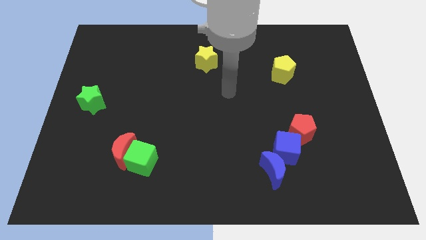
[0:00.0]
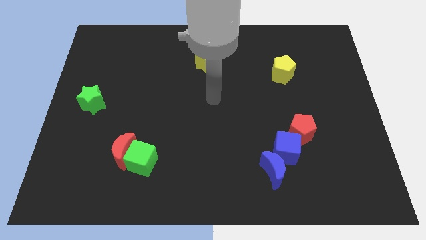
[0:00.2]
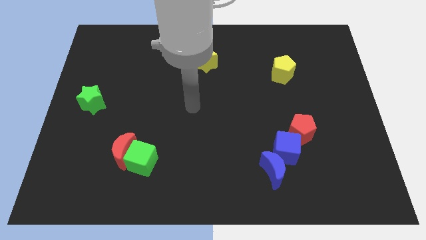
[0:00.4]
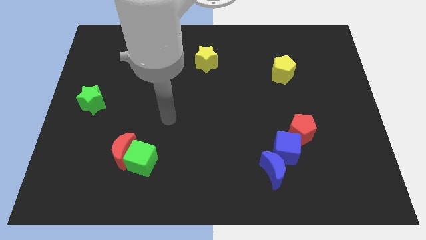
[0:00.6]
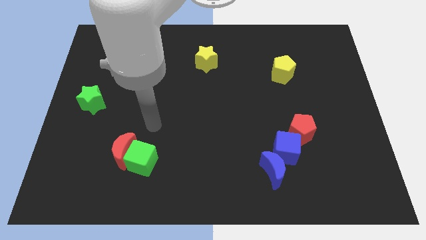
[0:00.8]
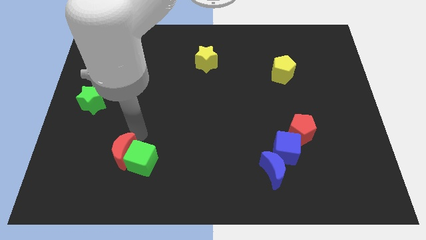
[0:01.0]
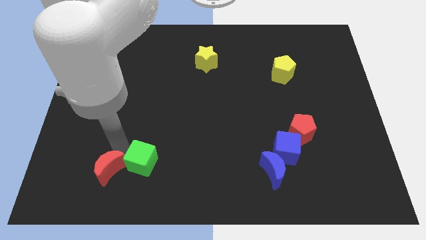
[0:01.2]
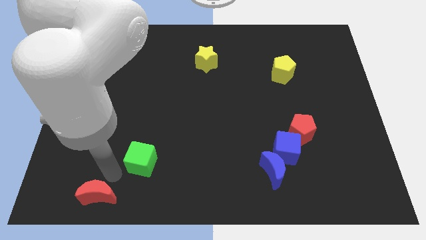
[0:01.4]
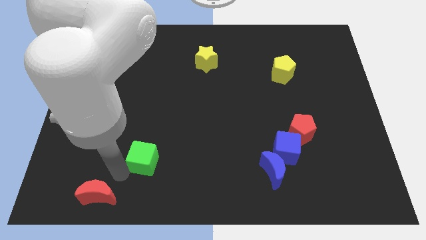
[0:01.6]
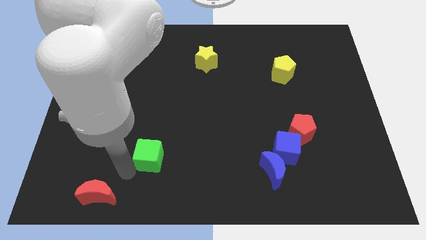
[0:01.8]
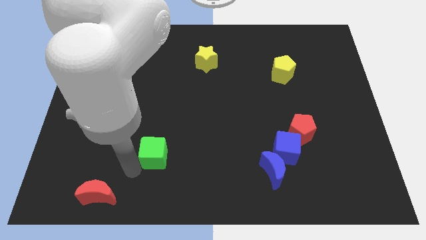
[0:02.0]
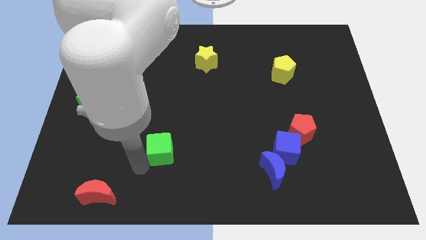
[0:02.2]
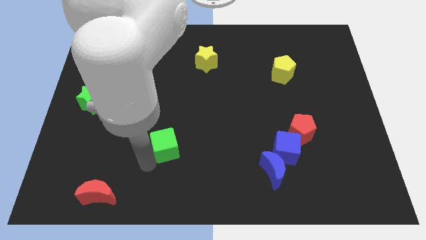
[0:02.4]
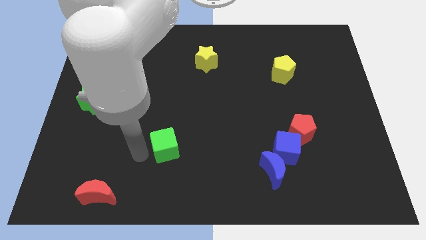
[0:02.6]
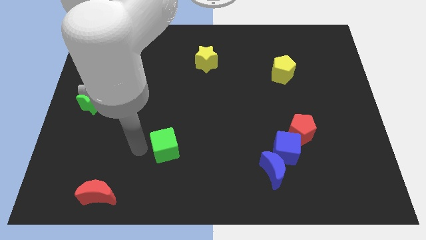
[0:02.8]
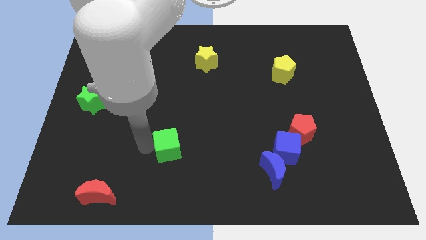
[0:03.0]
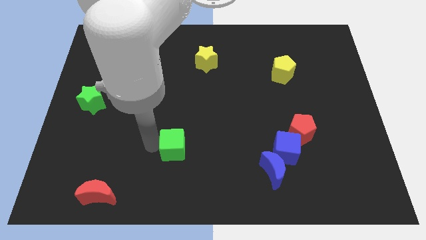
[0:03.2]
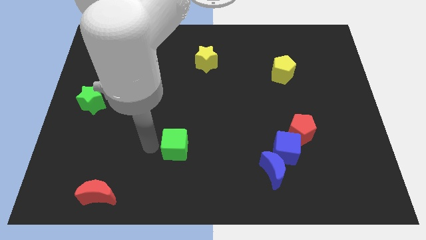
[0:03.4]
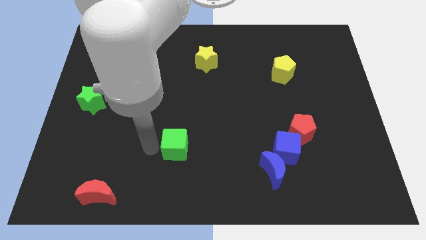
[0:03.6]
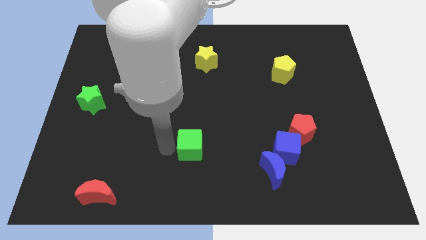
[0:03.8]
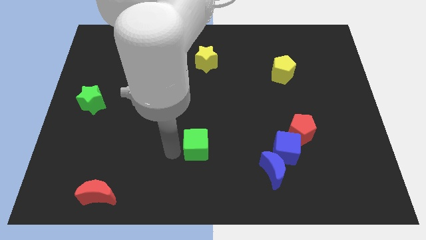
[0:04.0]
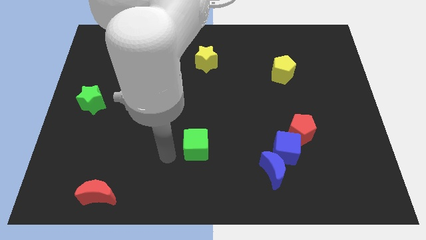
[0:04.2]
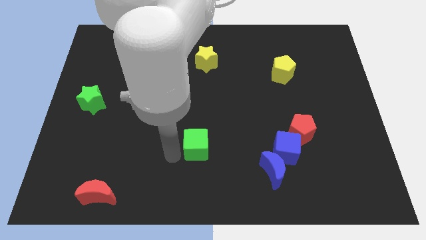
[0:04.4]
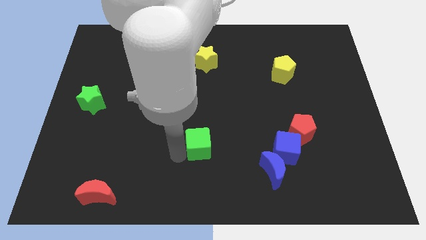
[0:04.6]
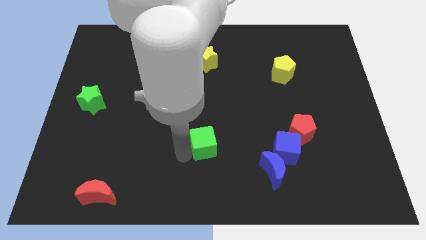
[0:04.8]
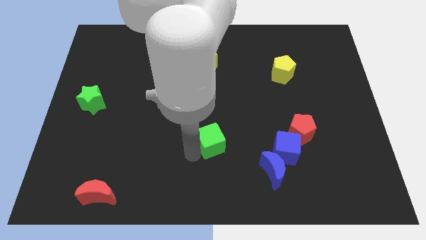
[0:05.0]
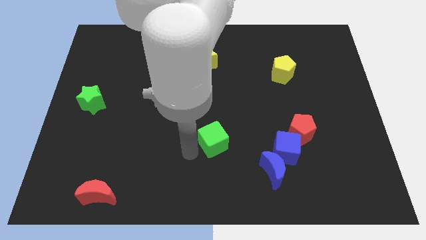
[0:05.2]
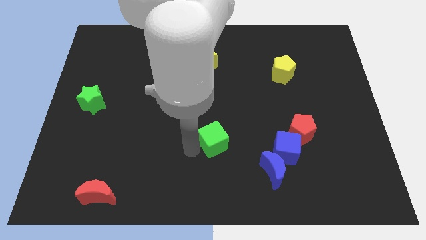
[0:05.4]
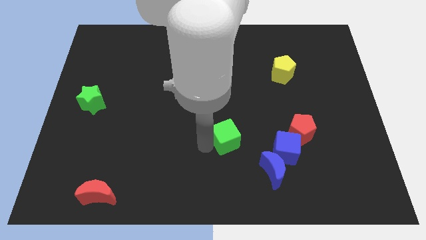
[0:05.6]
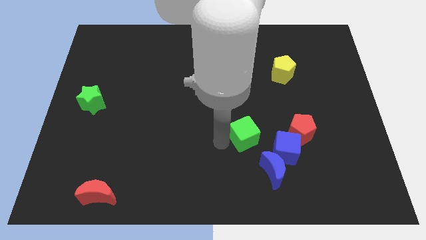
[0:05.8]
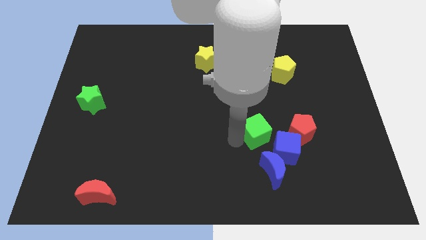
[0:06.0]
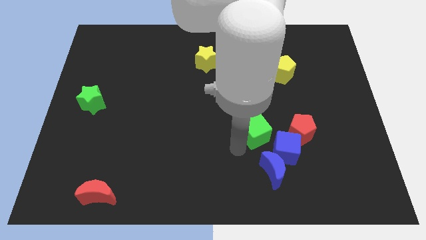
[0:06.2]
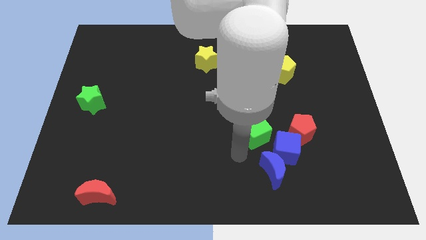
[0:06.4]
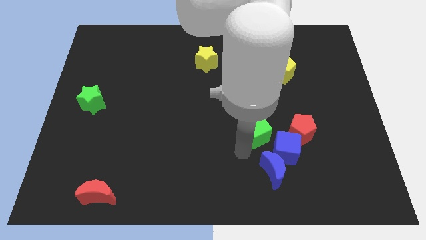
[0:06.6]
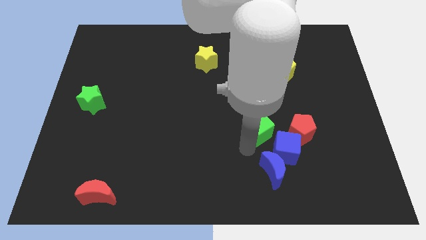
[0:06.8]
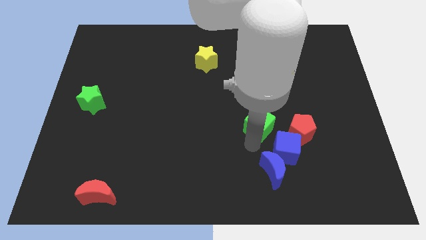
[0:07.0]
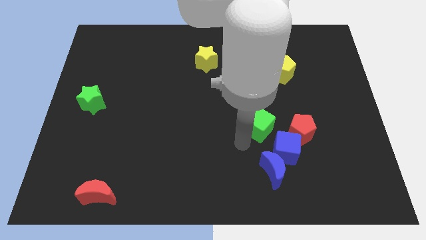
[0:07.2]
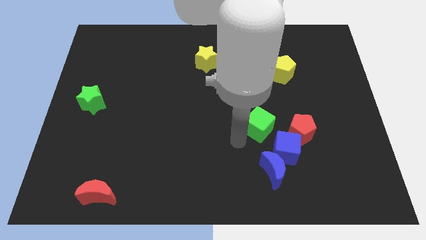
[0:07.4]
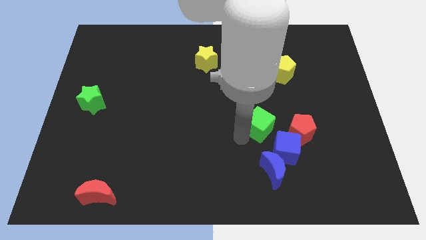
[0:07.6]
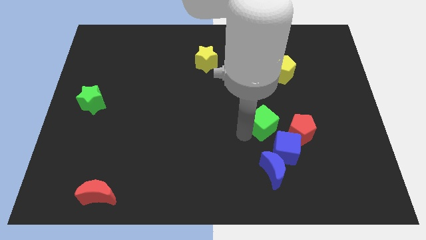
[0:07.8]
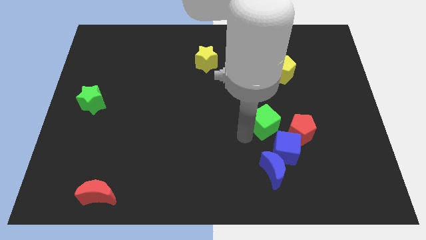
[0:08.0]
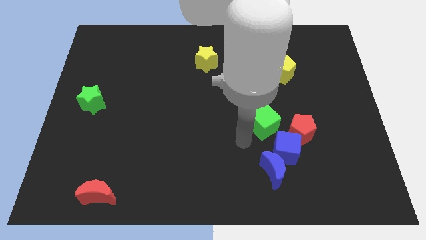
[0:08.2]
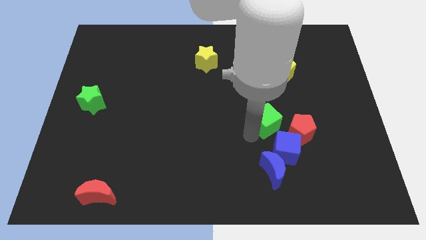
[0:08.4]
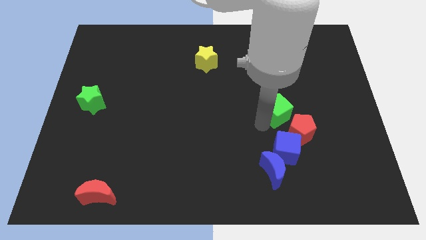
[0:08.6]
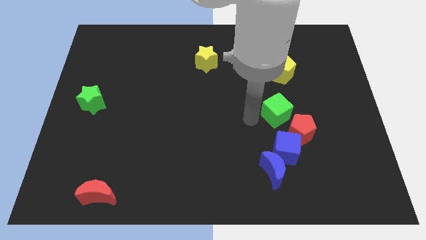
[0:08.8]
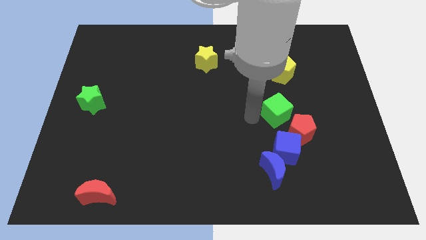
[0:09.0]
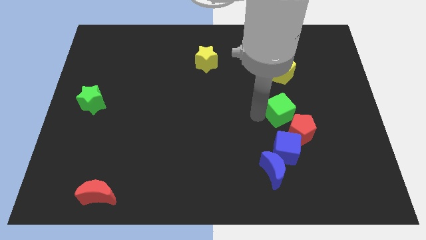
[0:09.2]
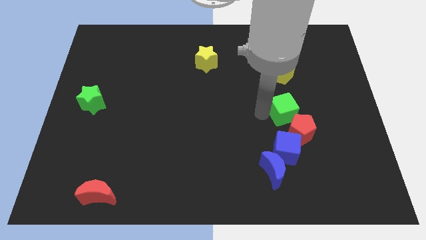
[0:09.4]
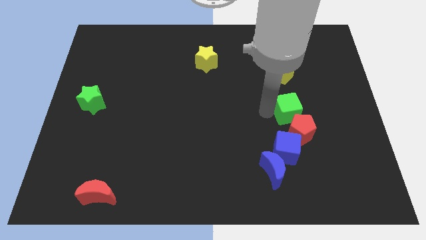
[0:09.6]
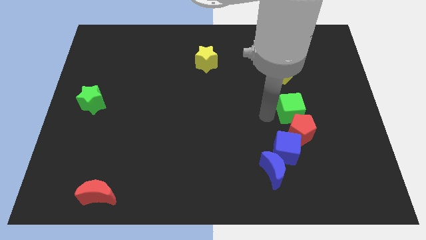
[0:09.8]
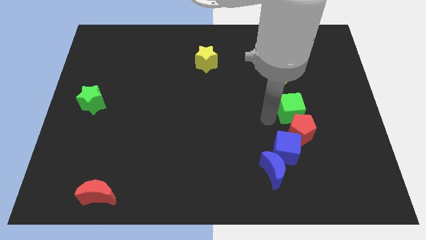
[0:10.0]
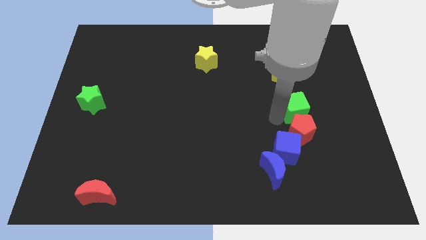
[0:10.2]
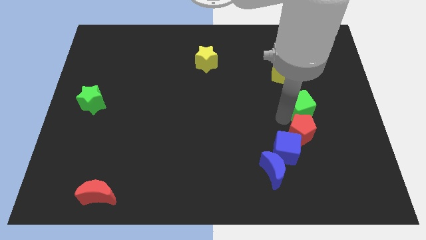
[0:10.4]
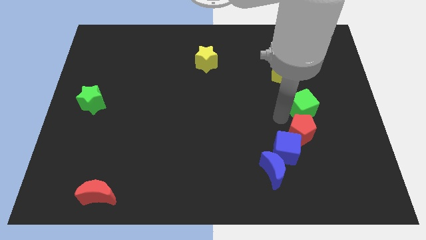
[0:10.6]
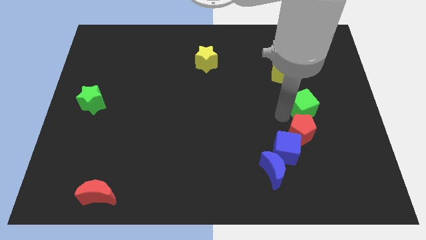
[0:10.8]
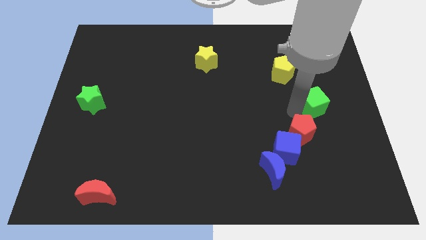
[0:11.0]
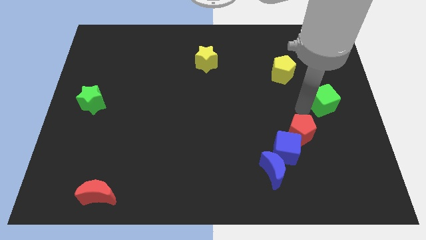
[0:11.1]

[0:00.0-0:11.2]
move the green cube to the right side of the board

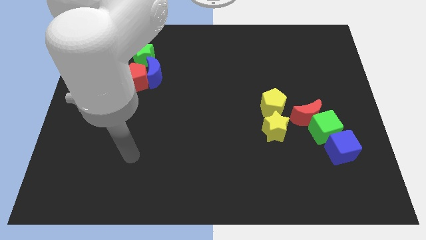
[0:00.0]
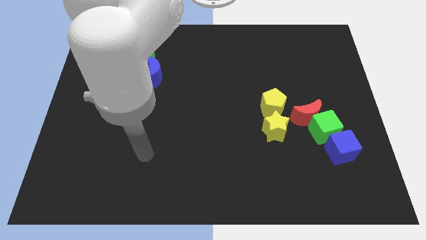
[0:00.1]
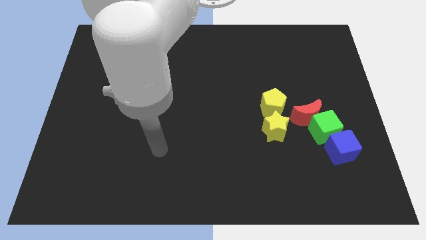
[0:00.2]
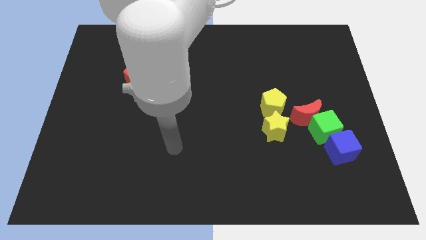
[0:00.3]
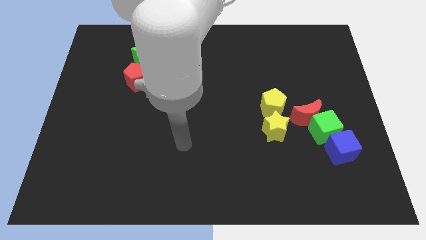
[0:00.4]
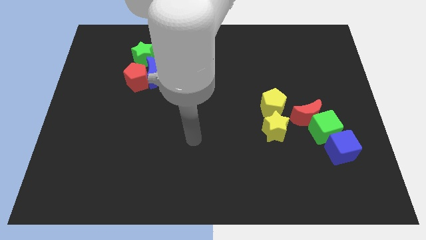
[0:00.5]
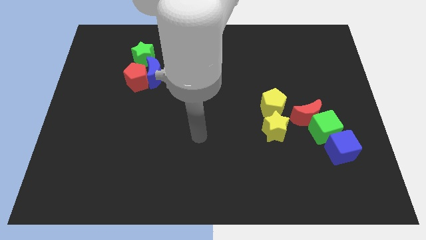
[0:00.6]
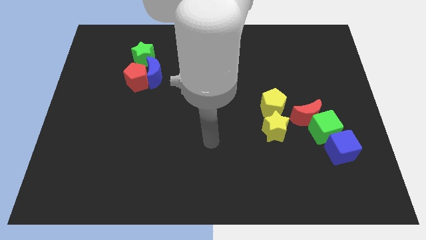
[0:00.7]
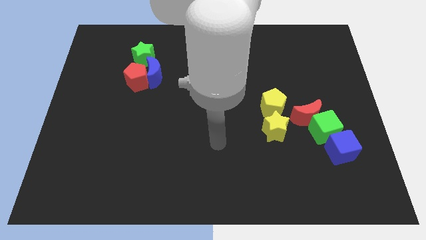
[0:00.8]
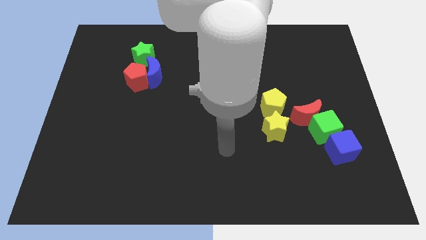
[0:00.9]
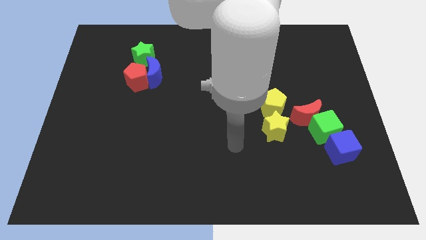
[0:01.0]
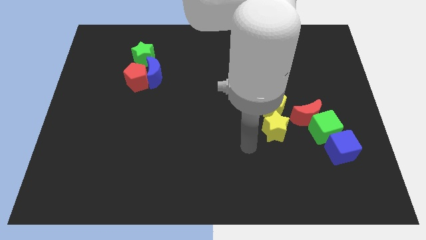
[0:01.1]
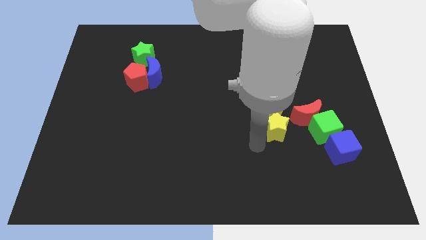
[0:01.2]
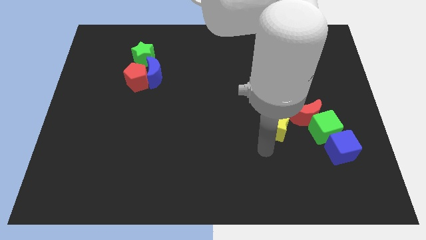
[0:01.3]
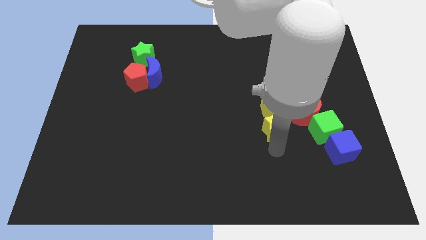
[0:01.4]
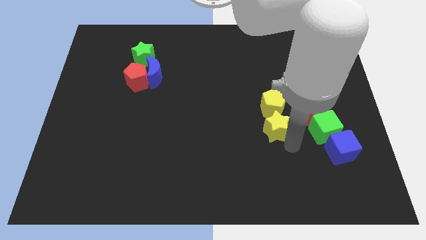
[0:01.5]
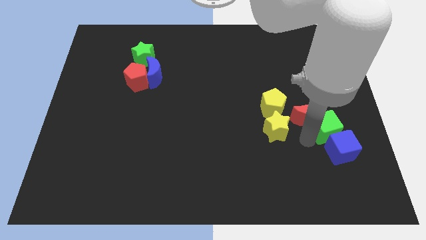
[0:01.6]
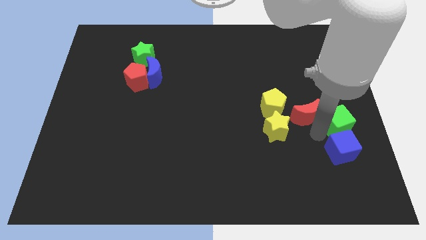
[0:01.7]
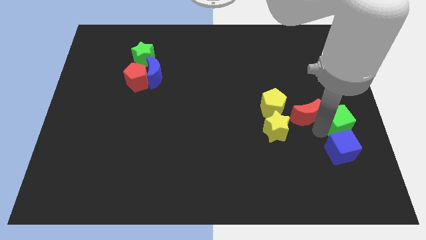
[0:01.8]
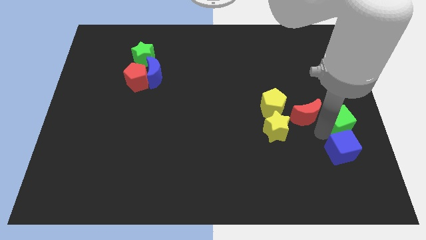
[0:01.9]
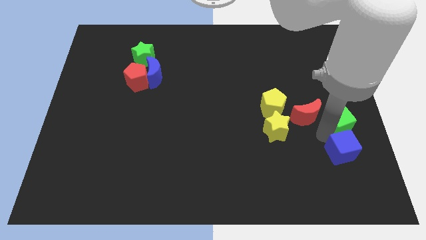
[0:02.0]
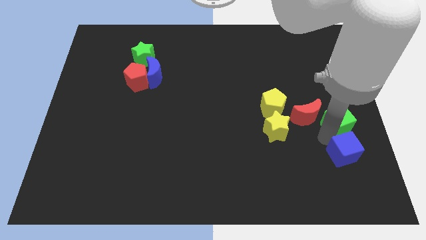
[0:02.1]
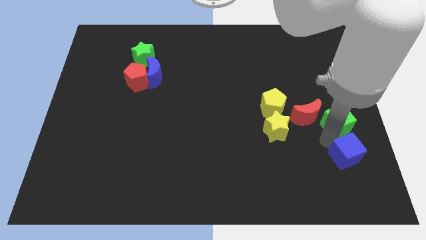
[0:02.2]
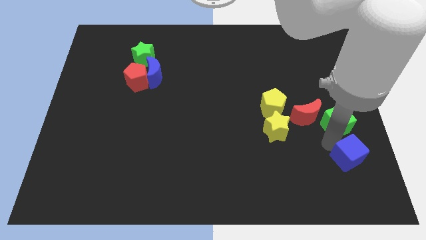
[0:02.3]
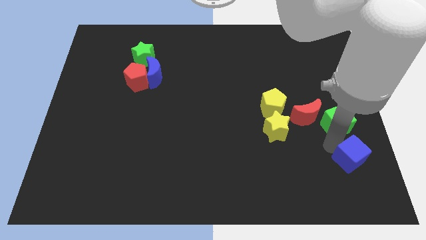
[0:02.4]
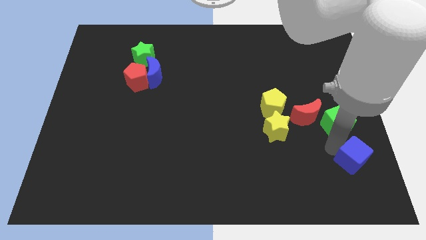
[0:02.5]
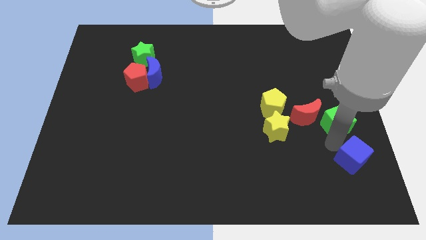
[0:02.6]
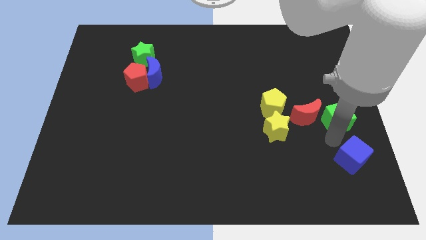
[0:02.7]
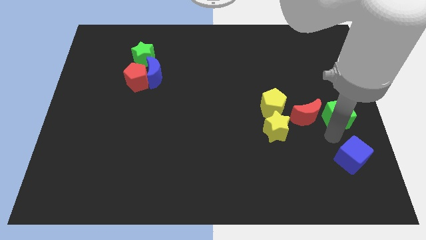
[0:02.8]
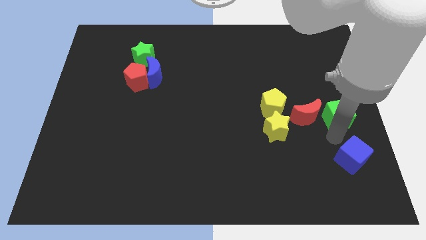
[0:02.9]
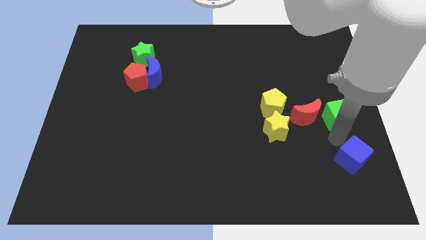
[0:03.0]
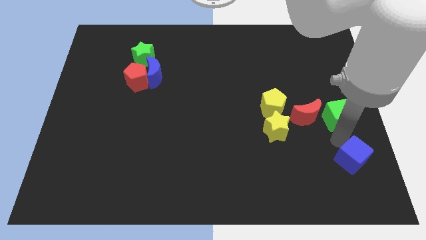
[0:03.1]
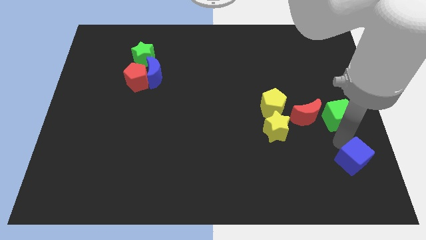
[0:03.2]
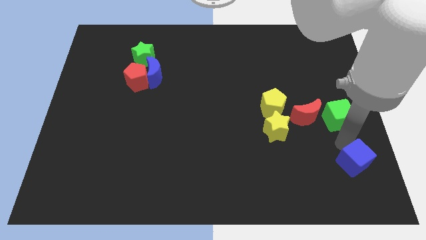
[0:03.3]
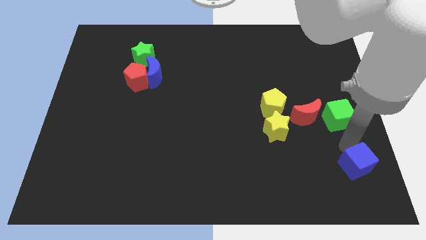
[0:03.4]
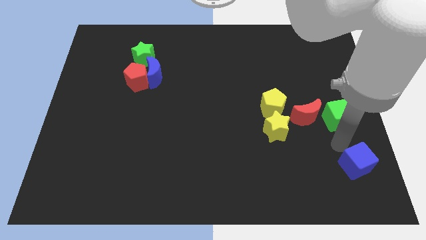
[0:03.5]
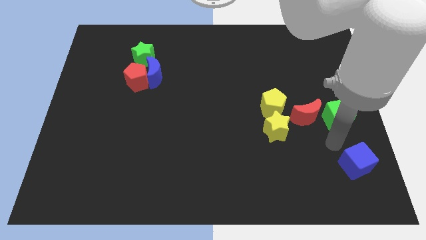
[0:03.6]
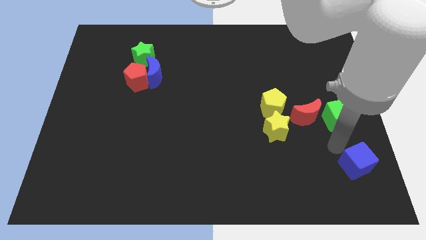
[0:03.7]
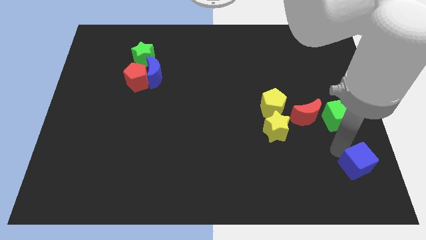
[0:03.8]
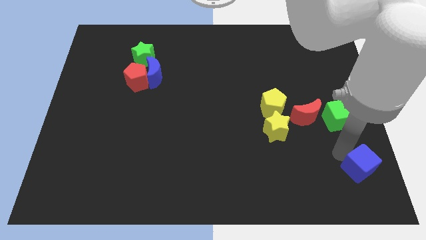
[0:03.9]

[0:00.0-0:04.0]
put the blue cube to the bottom right corner
